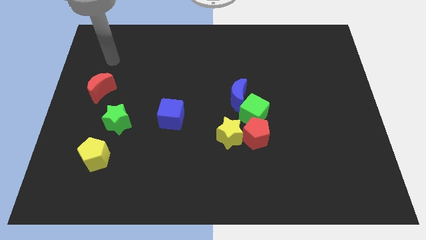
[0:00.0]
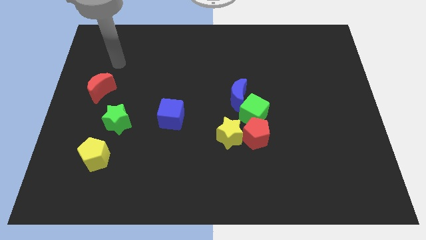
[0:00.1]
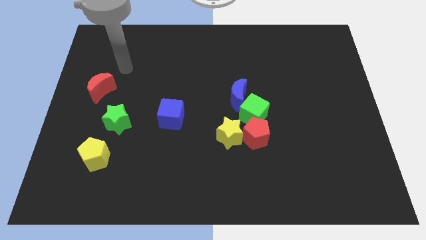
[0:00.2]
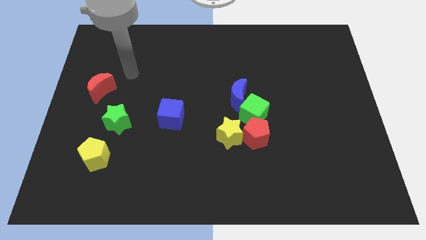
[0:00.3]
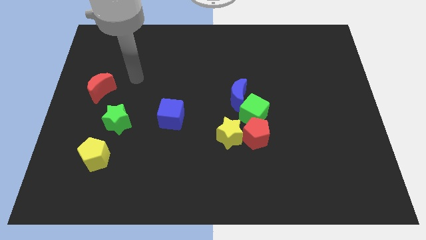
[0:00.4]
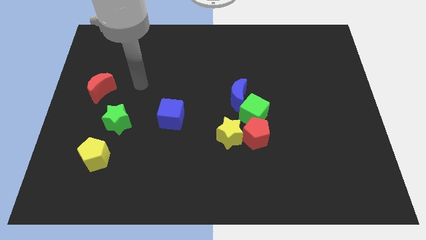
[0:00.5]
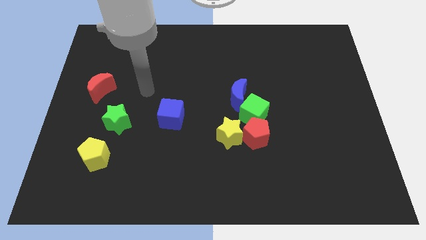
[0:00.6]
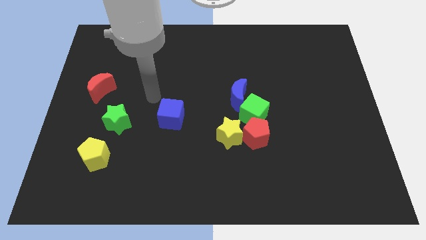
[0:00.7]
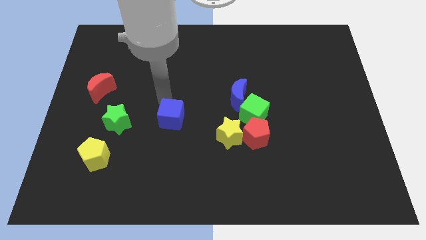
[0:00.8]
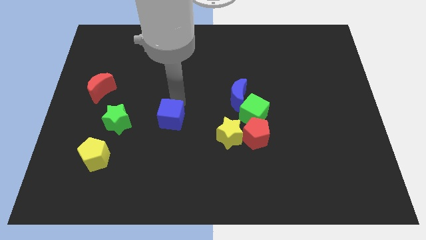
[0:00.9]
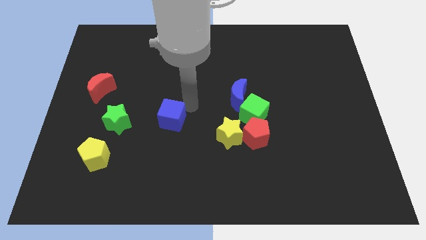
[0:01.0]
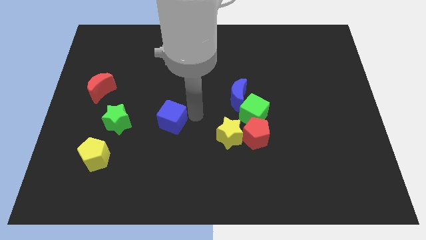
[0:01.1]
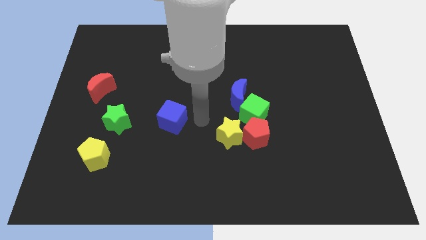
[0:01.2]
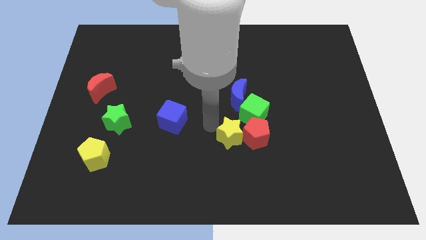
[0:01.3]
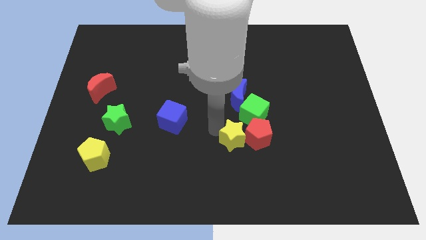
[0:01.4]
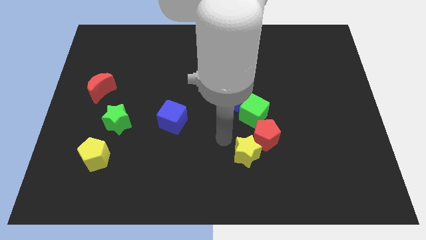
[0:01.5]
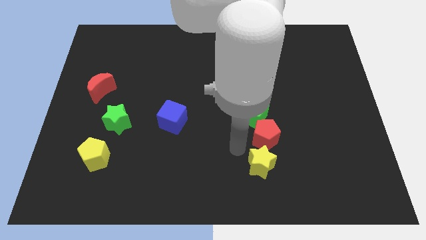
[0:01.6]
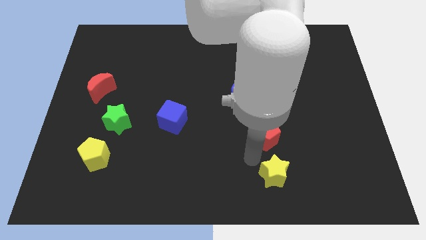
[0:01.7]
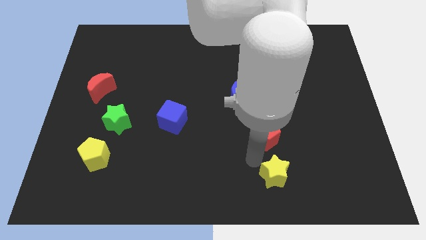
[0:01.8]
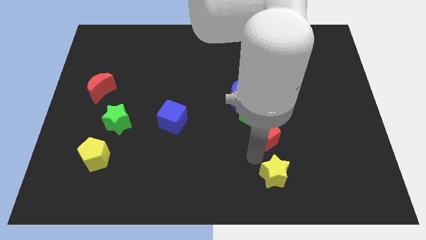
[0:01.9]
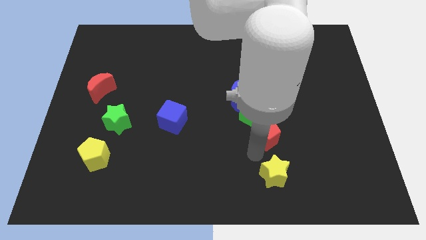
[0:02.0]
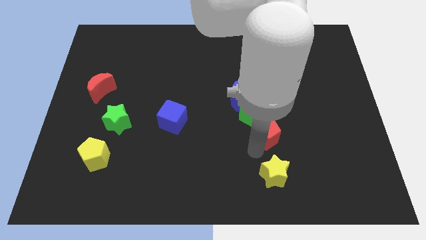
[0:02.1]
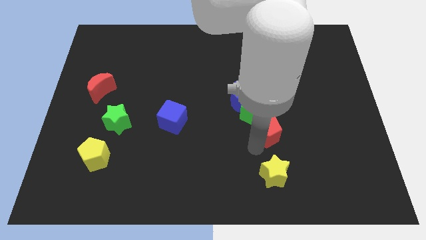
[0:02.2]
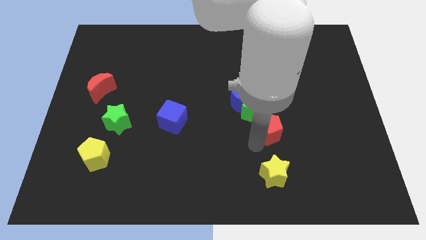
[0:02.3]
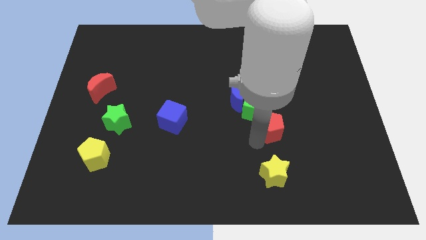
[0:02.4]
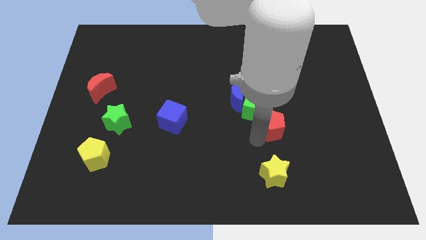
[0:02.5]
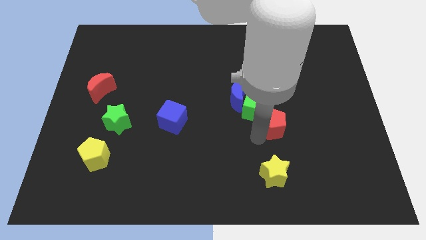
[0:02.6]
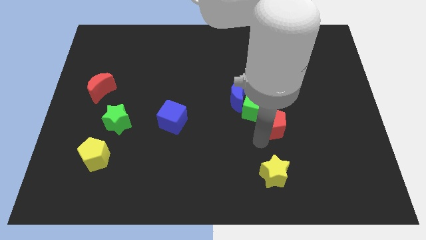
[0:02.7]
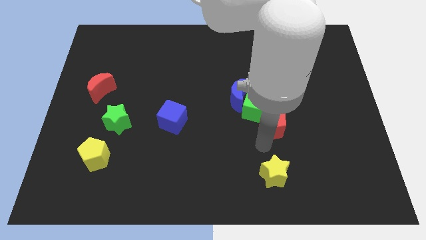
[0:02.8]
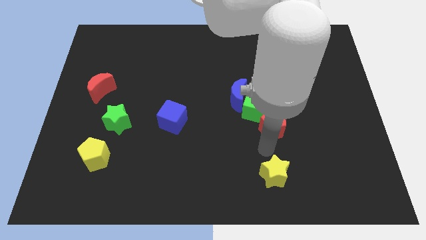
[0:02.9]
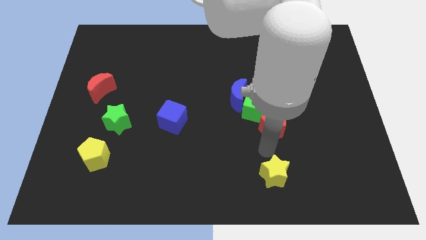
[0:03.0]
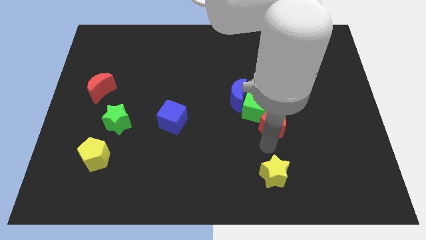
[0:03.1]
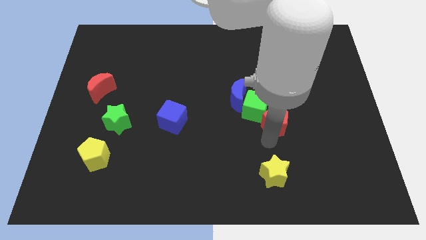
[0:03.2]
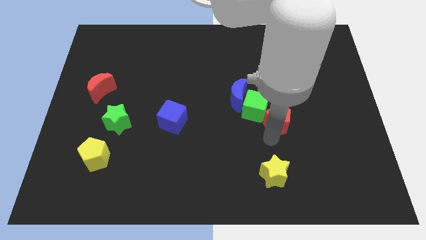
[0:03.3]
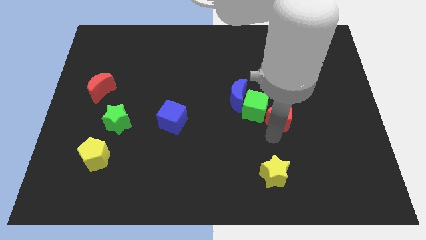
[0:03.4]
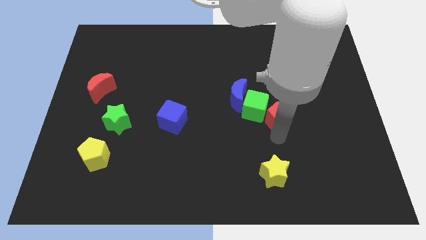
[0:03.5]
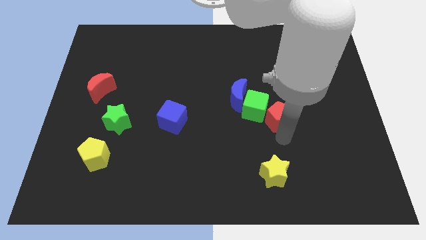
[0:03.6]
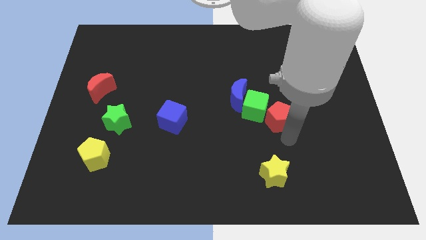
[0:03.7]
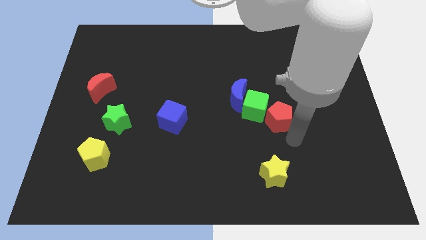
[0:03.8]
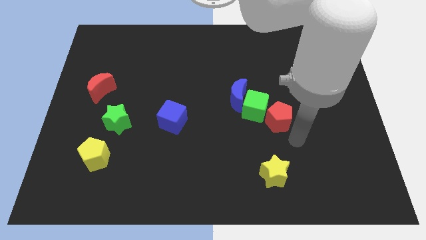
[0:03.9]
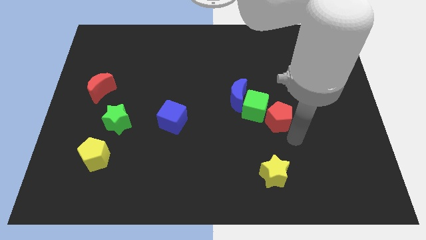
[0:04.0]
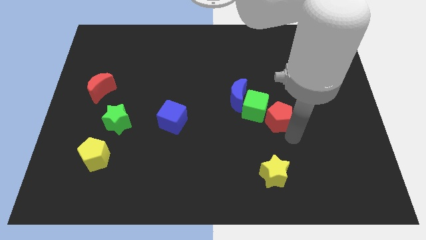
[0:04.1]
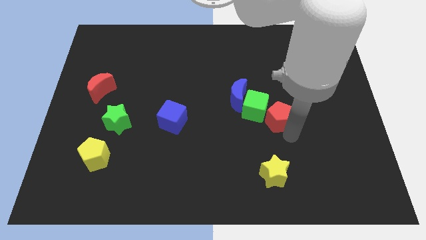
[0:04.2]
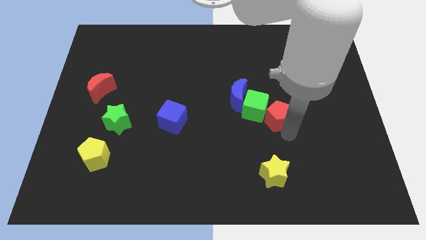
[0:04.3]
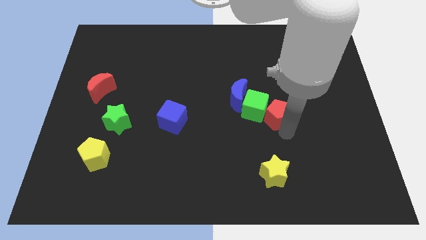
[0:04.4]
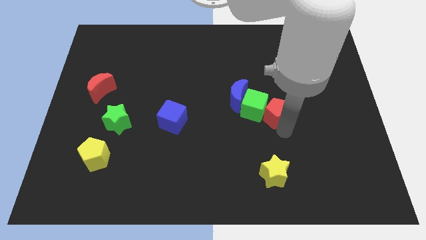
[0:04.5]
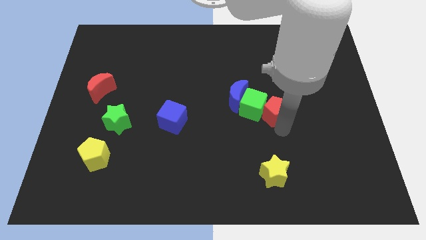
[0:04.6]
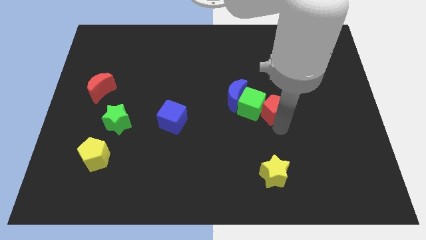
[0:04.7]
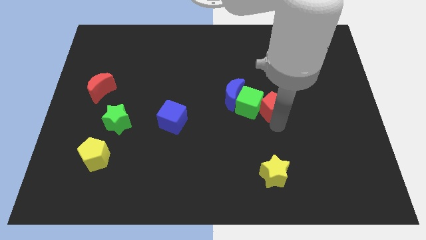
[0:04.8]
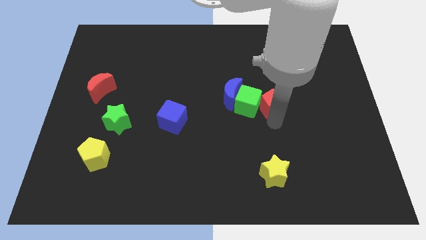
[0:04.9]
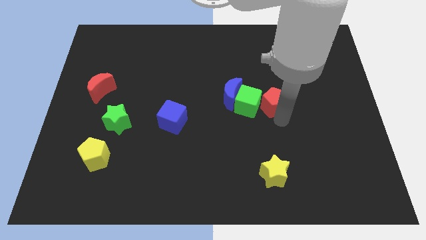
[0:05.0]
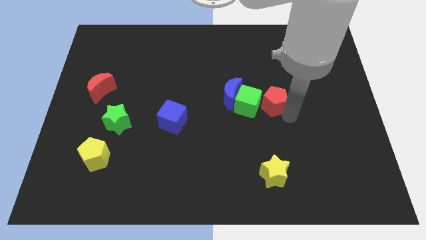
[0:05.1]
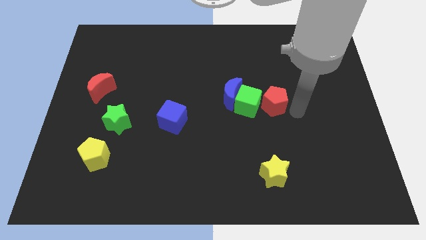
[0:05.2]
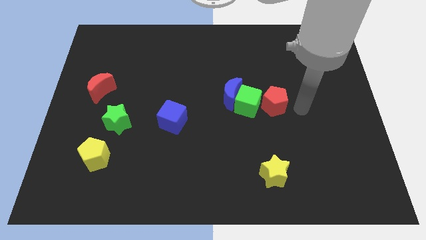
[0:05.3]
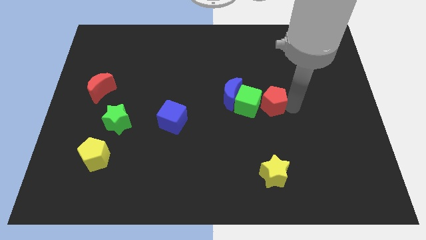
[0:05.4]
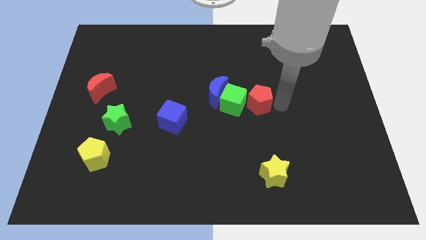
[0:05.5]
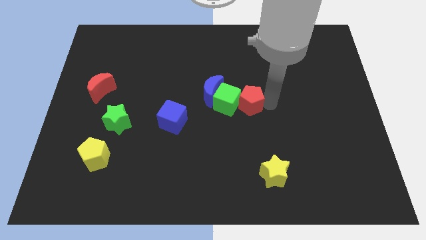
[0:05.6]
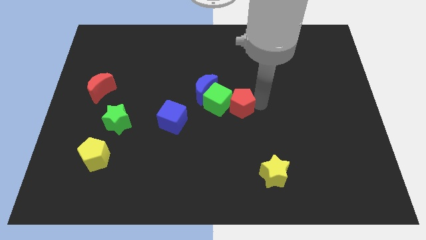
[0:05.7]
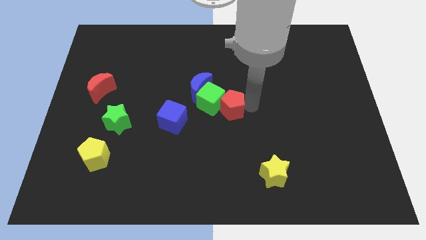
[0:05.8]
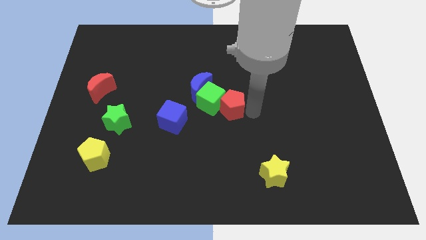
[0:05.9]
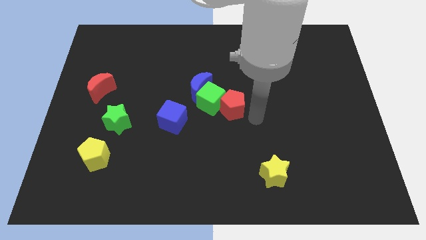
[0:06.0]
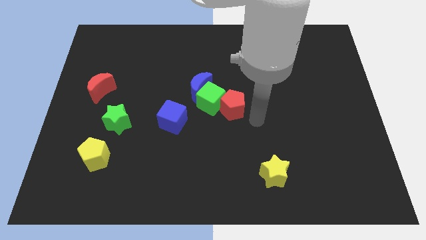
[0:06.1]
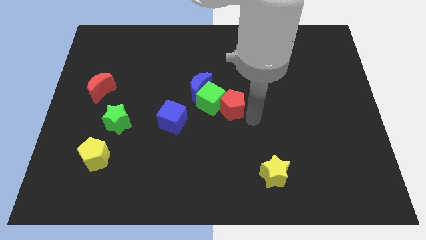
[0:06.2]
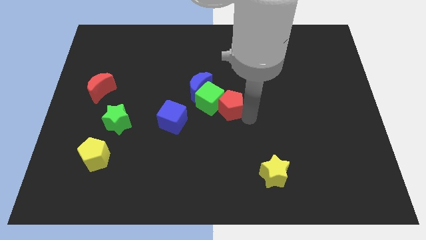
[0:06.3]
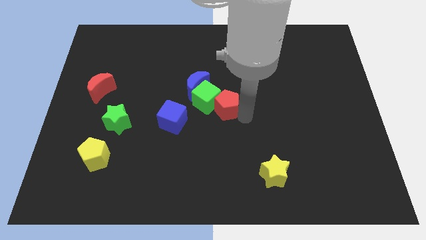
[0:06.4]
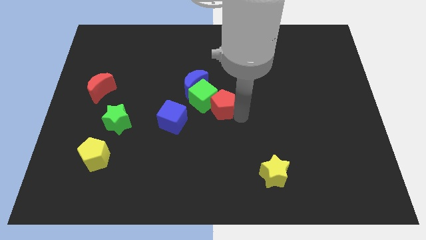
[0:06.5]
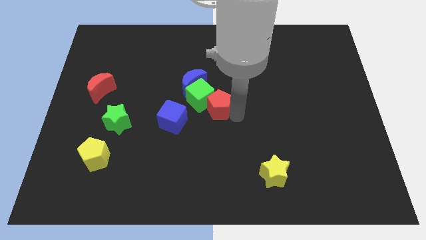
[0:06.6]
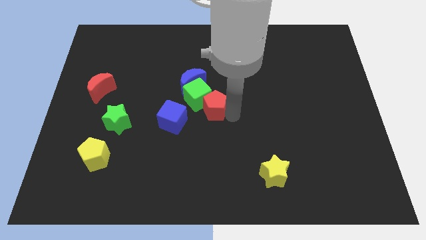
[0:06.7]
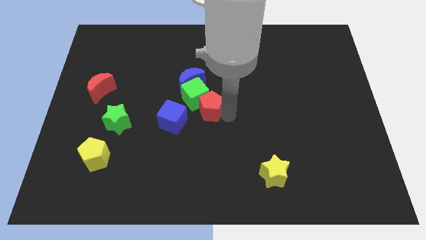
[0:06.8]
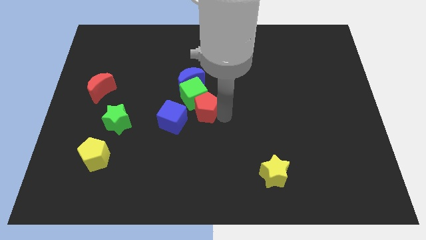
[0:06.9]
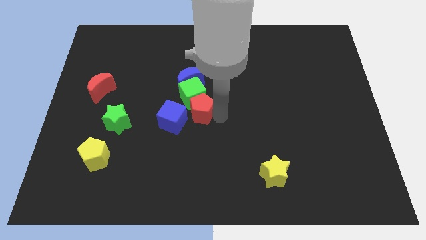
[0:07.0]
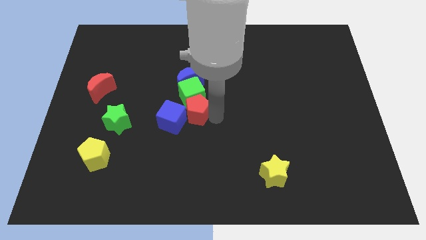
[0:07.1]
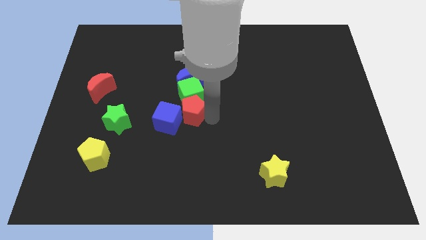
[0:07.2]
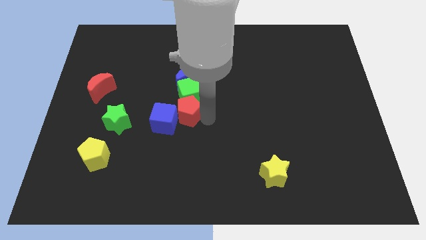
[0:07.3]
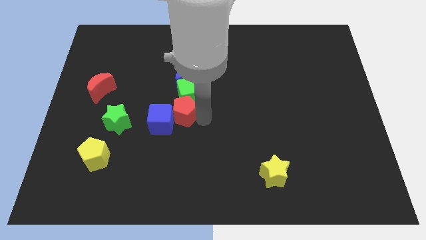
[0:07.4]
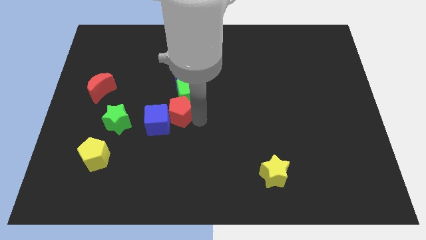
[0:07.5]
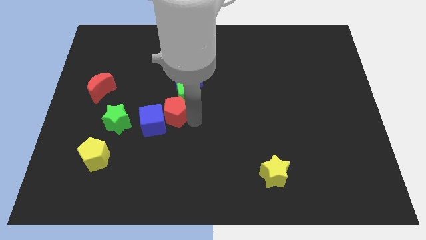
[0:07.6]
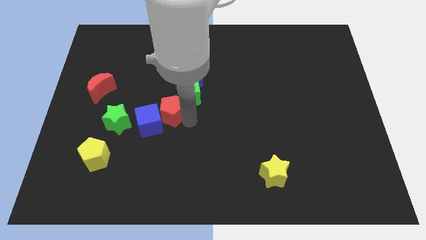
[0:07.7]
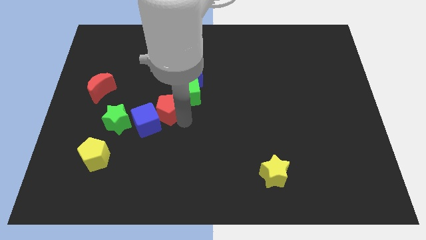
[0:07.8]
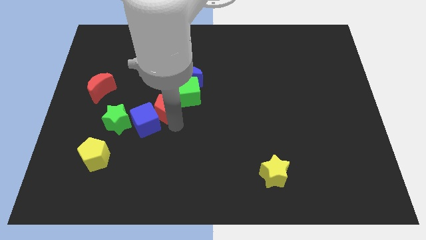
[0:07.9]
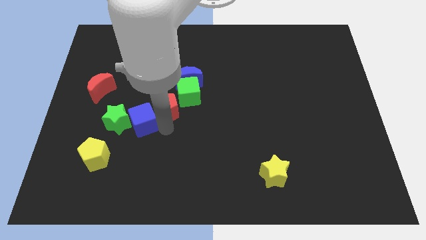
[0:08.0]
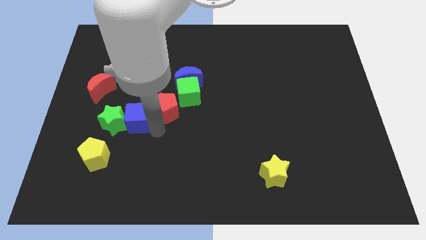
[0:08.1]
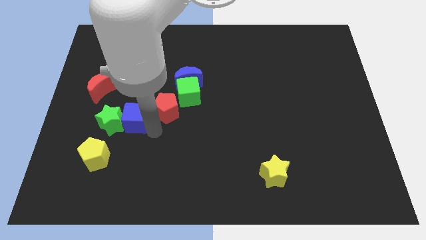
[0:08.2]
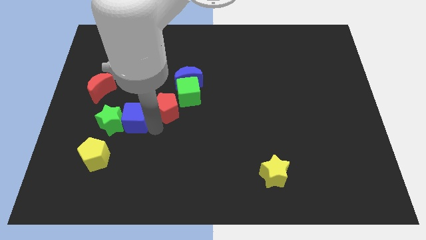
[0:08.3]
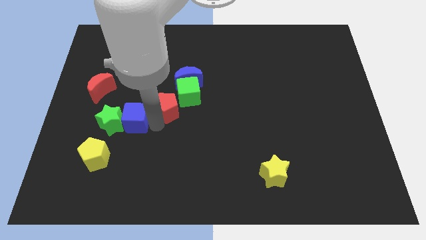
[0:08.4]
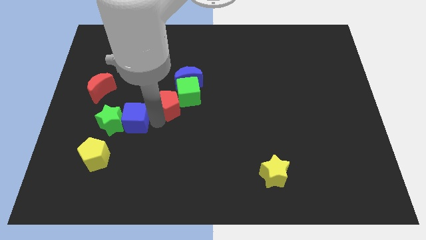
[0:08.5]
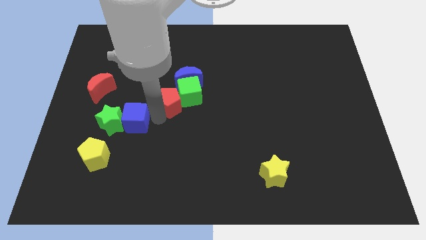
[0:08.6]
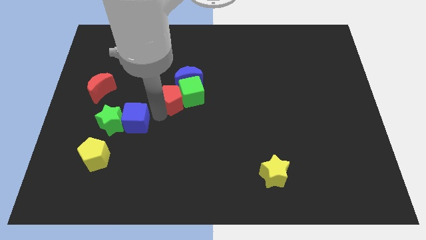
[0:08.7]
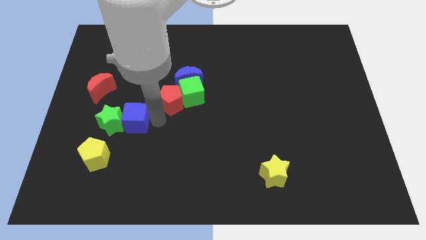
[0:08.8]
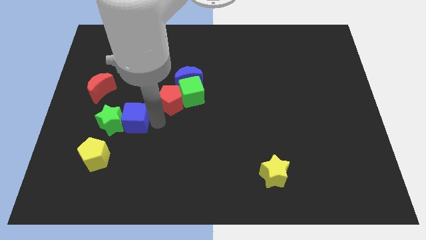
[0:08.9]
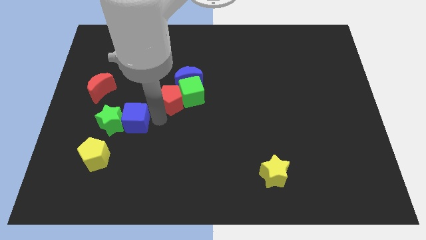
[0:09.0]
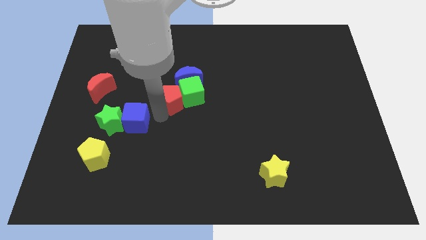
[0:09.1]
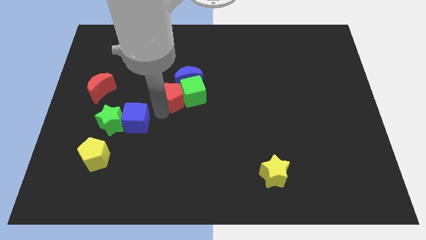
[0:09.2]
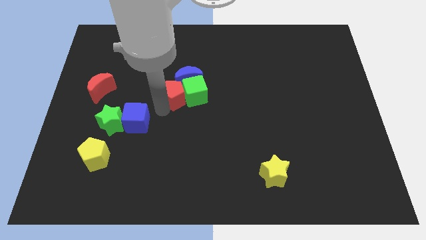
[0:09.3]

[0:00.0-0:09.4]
push the red pentagon to the blue moon
